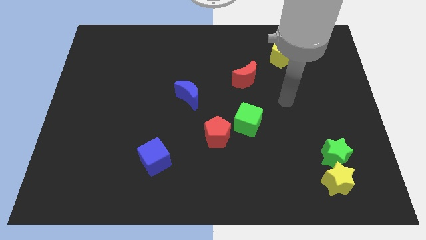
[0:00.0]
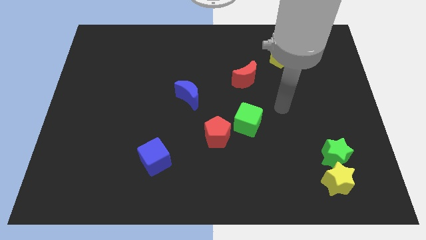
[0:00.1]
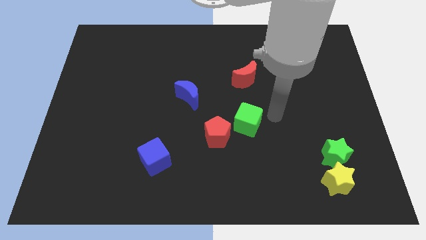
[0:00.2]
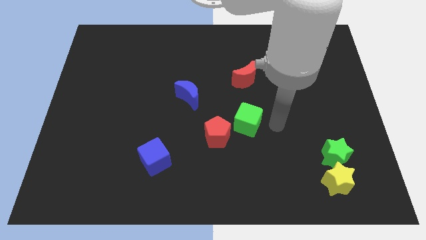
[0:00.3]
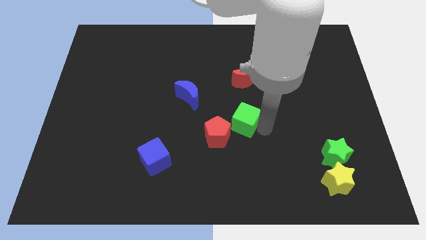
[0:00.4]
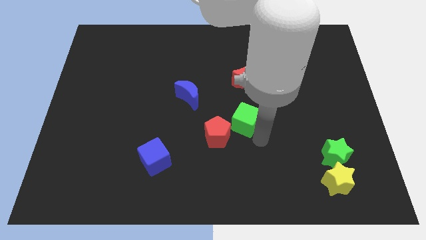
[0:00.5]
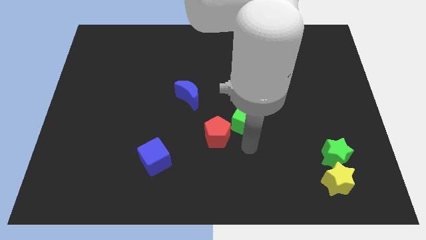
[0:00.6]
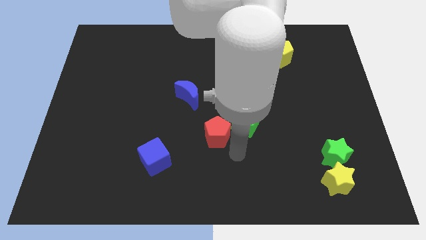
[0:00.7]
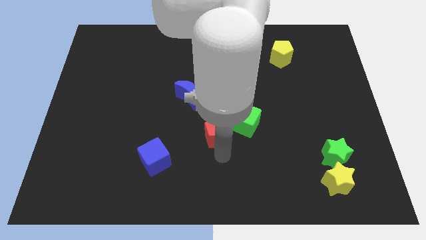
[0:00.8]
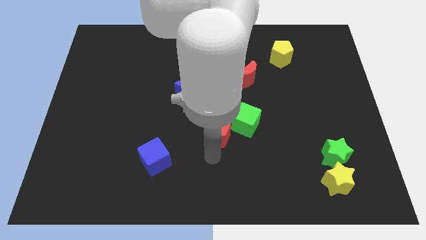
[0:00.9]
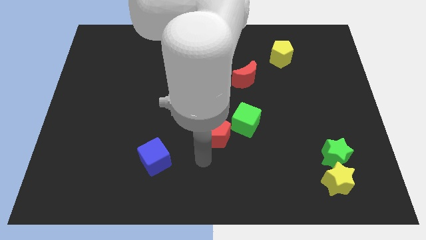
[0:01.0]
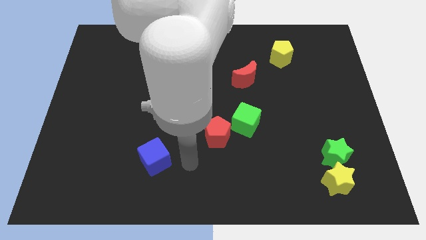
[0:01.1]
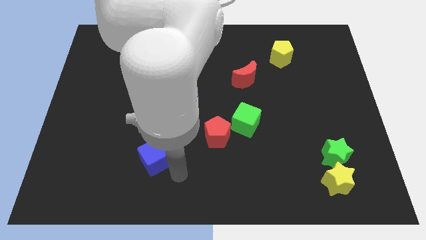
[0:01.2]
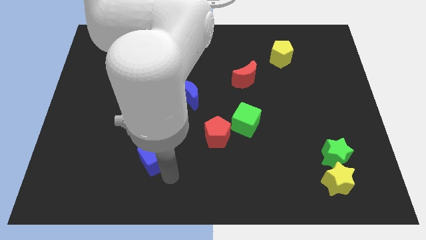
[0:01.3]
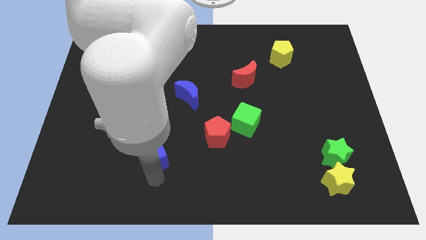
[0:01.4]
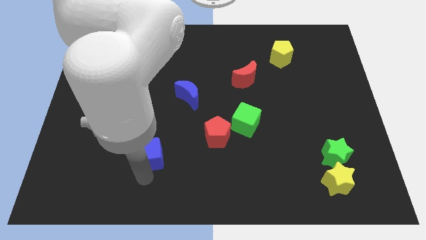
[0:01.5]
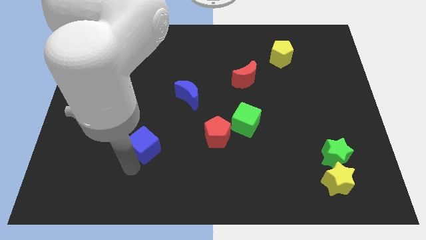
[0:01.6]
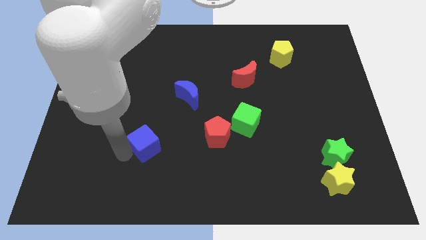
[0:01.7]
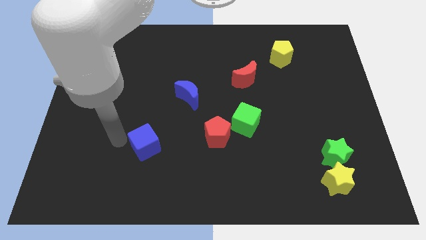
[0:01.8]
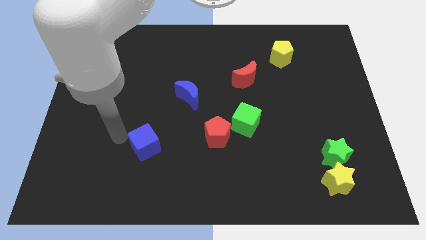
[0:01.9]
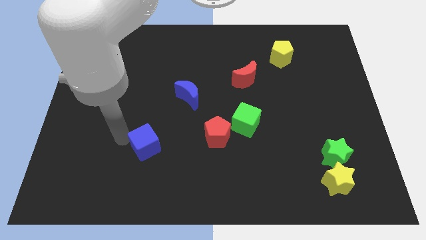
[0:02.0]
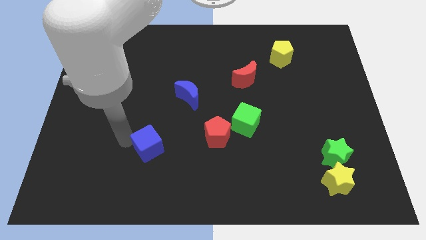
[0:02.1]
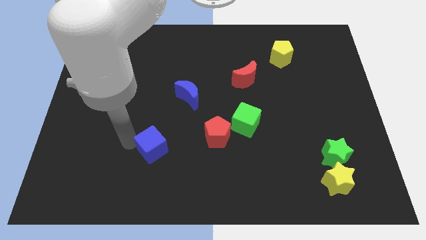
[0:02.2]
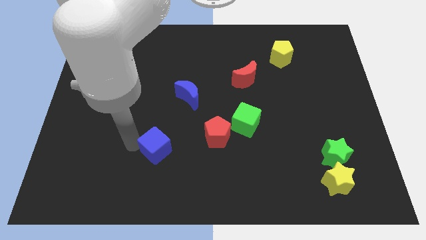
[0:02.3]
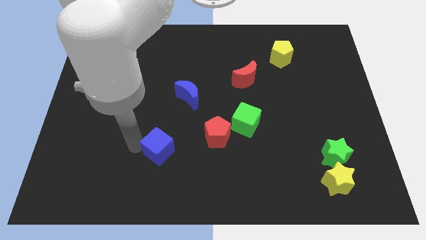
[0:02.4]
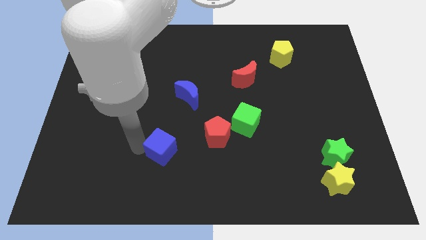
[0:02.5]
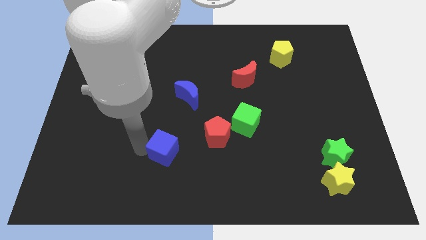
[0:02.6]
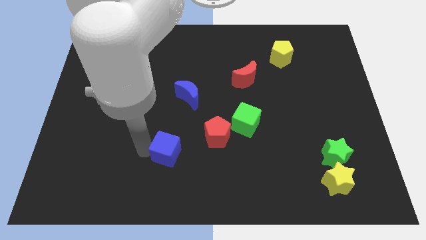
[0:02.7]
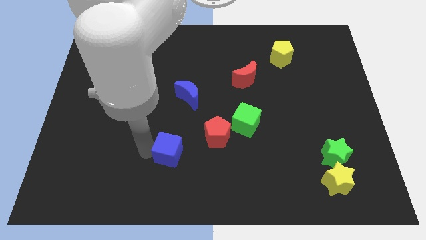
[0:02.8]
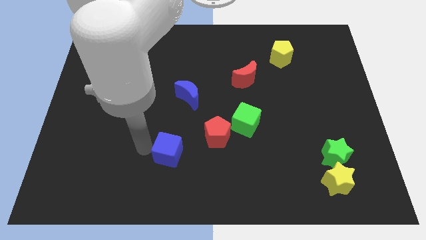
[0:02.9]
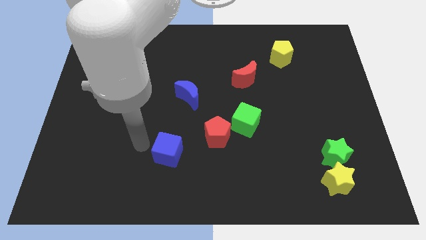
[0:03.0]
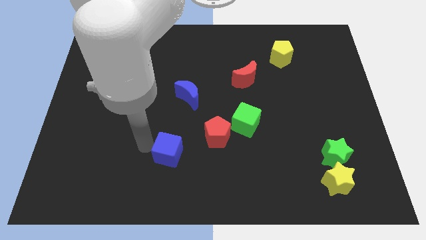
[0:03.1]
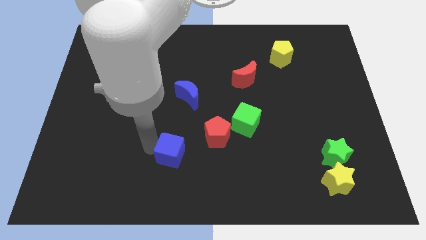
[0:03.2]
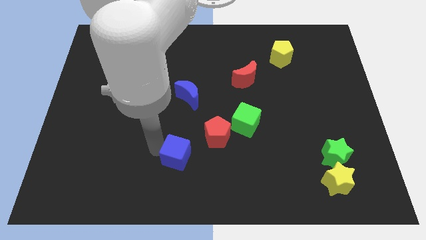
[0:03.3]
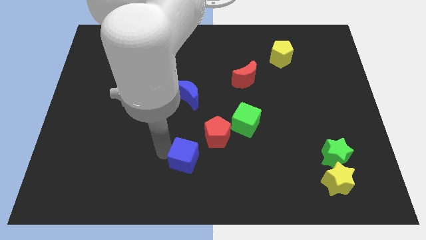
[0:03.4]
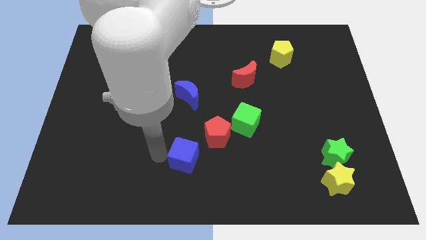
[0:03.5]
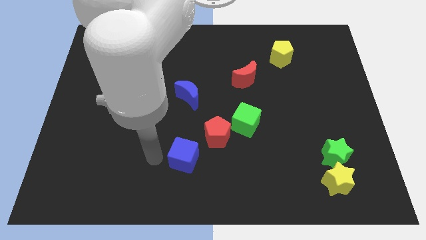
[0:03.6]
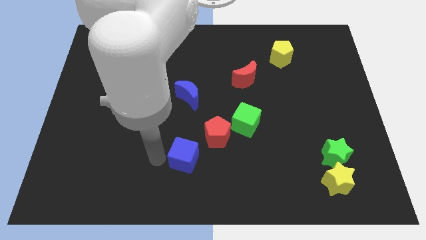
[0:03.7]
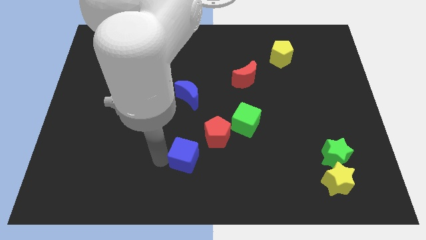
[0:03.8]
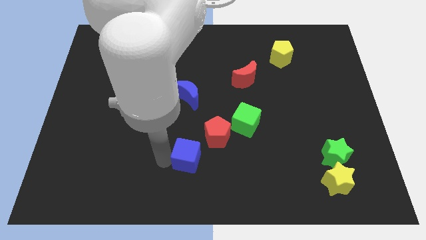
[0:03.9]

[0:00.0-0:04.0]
move the blue cube somewhat right

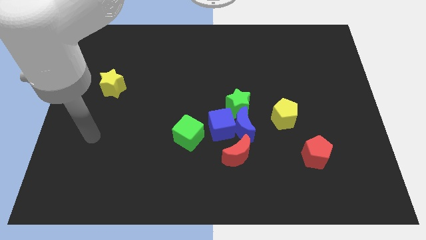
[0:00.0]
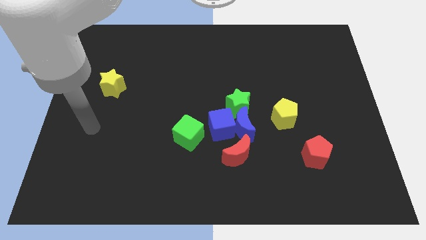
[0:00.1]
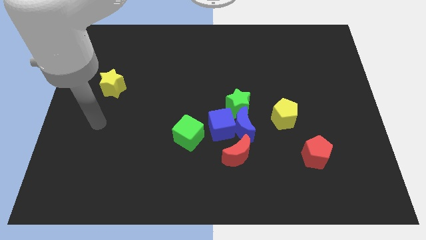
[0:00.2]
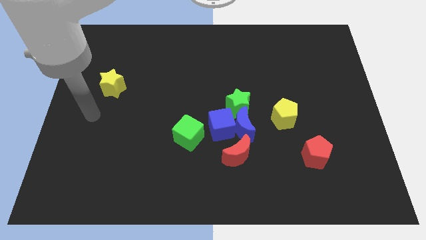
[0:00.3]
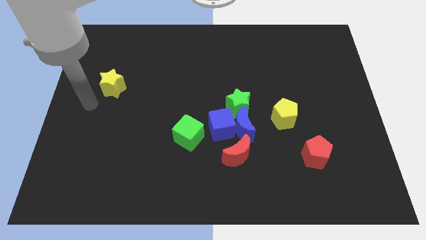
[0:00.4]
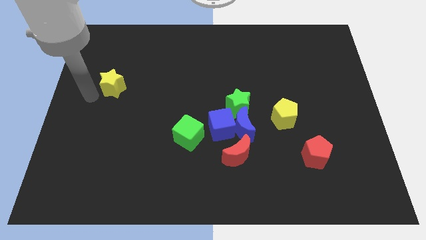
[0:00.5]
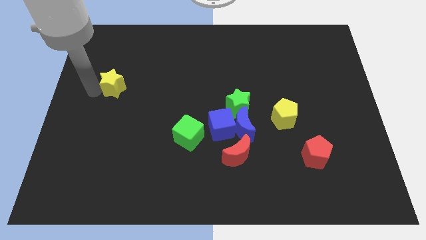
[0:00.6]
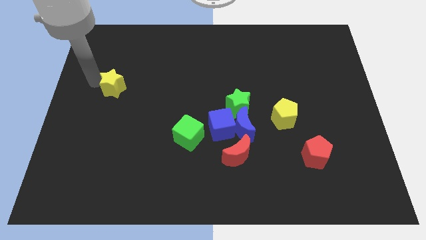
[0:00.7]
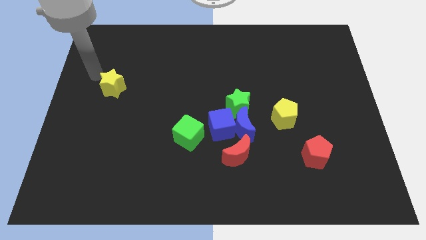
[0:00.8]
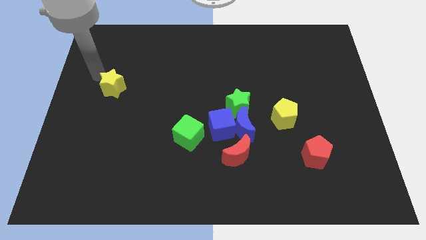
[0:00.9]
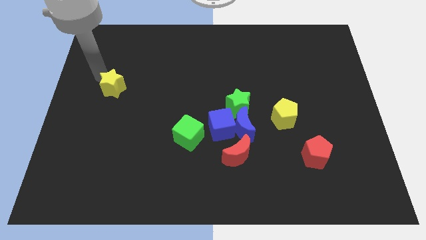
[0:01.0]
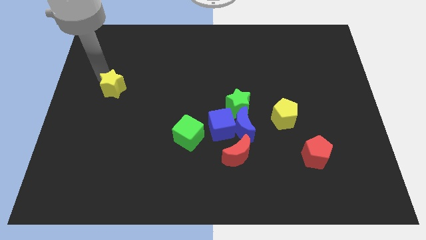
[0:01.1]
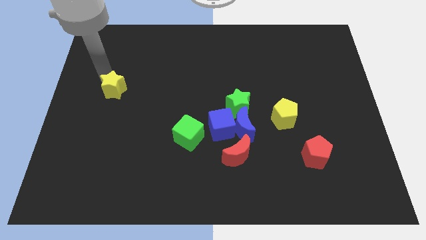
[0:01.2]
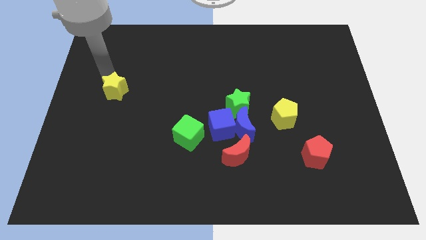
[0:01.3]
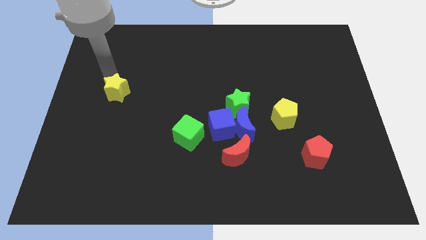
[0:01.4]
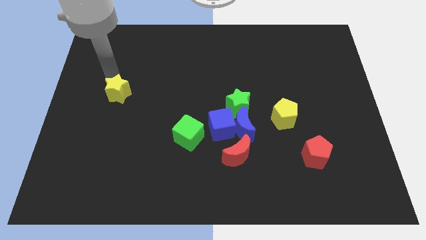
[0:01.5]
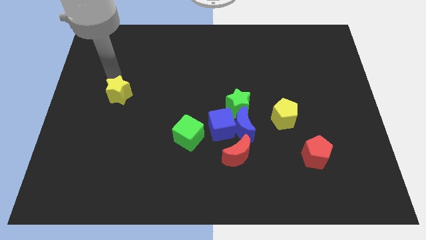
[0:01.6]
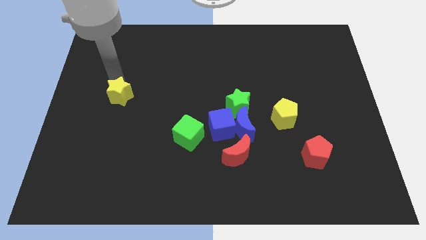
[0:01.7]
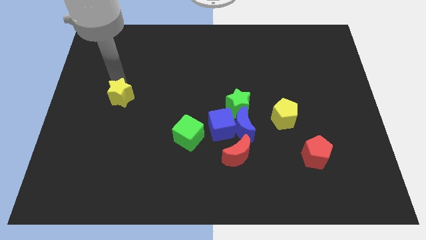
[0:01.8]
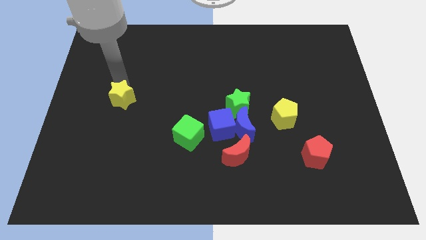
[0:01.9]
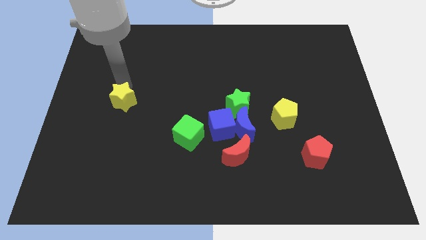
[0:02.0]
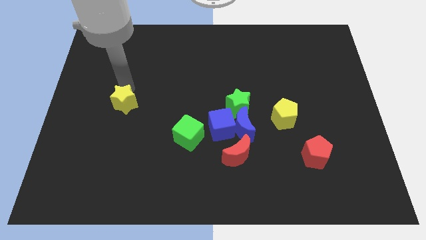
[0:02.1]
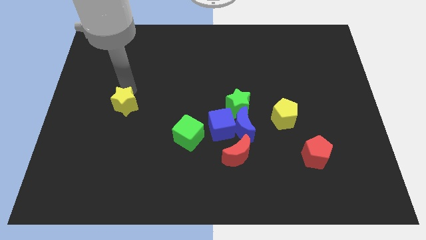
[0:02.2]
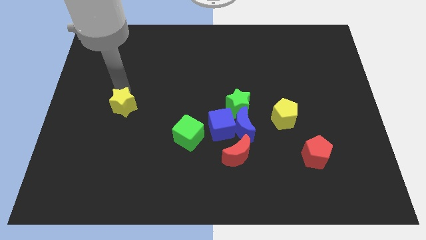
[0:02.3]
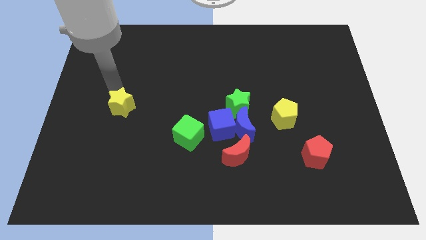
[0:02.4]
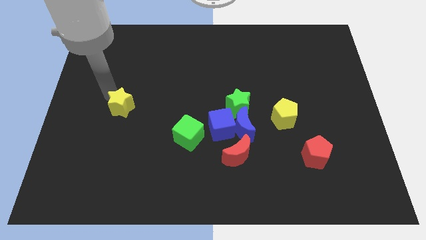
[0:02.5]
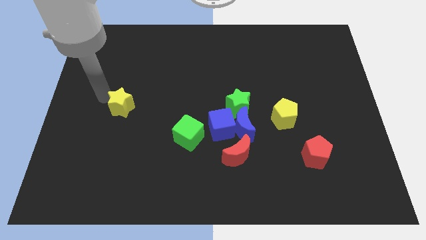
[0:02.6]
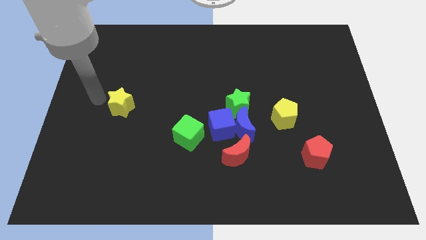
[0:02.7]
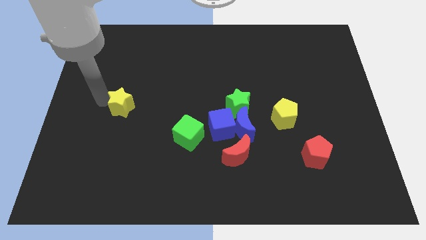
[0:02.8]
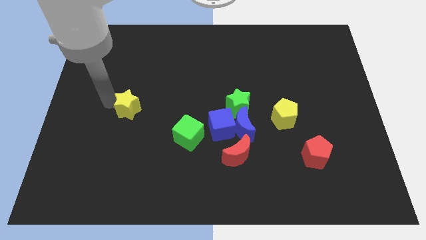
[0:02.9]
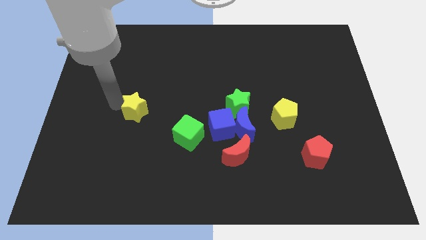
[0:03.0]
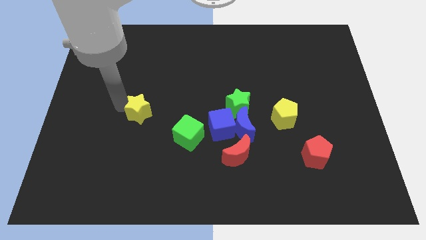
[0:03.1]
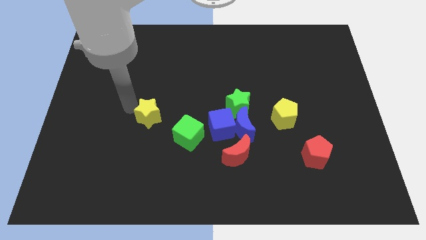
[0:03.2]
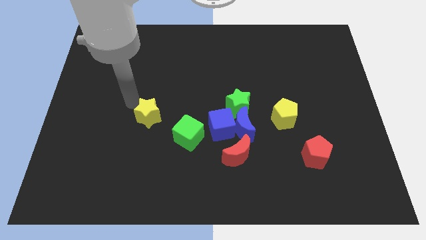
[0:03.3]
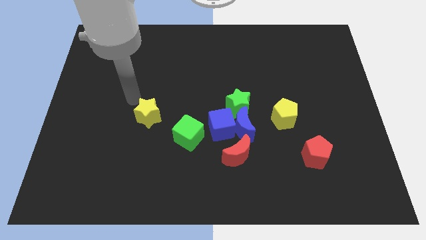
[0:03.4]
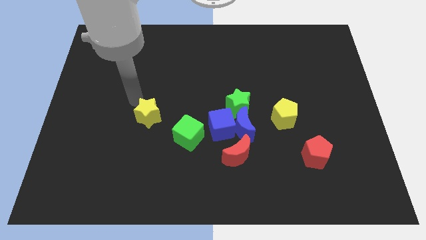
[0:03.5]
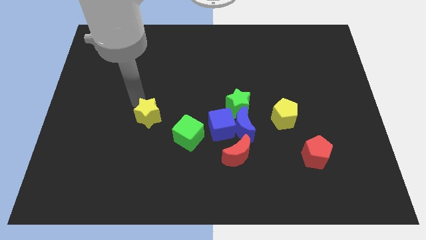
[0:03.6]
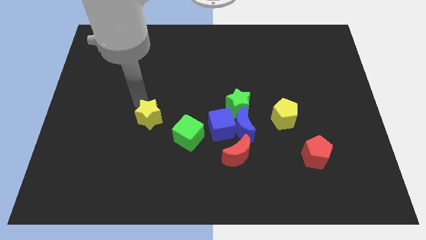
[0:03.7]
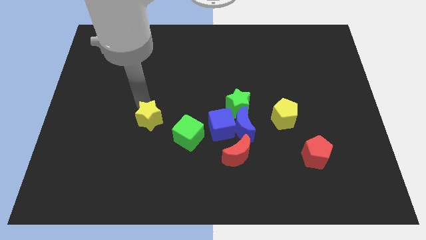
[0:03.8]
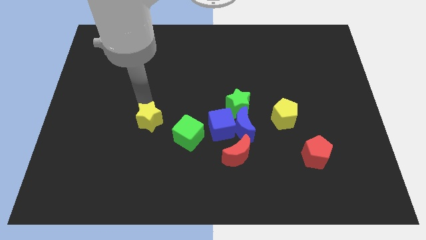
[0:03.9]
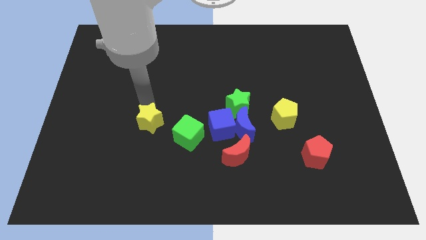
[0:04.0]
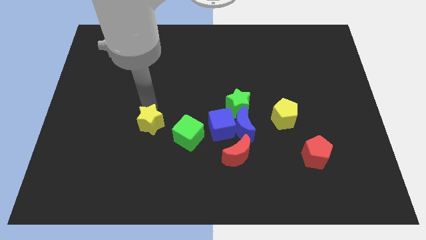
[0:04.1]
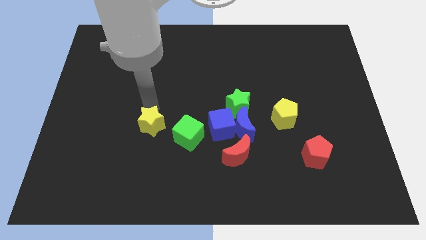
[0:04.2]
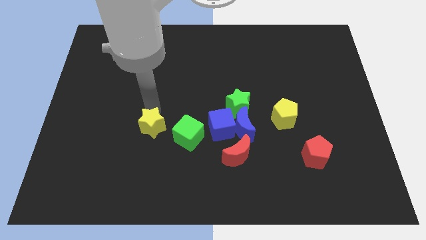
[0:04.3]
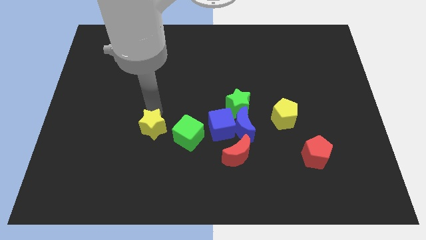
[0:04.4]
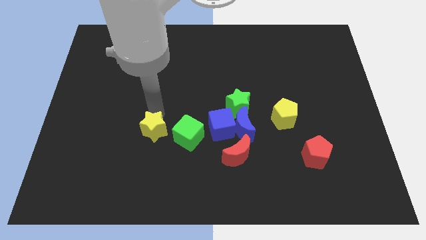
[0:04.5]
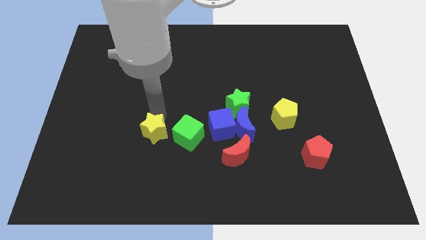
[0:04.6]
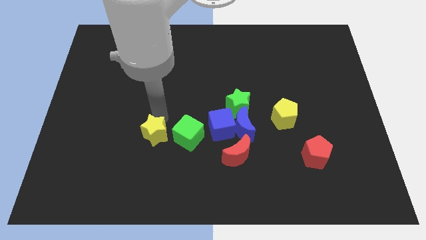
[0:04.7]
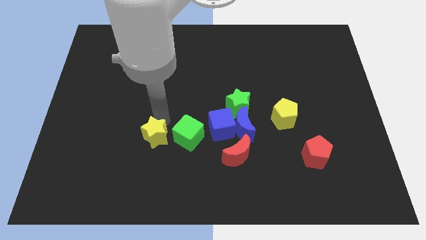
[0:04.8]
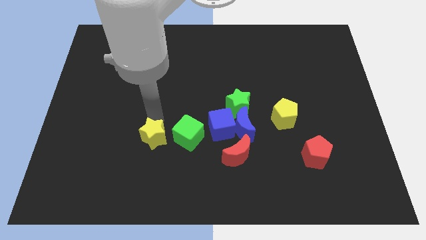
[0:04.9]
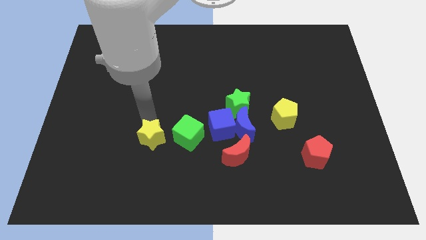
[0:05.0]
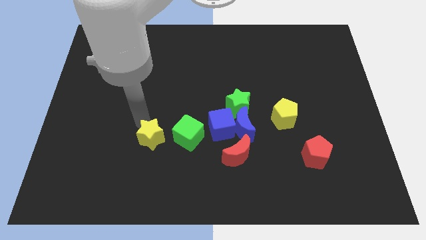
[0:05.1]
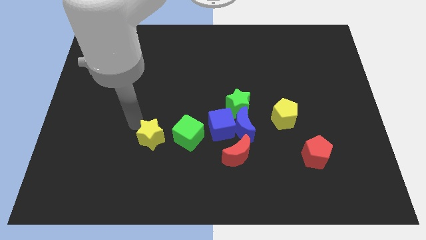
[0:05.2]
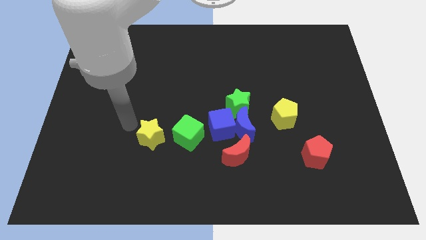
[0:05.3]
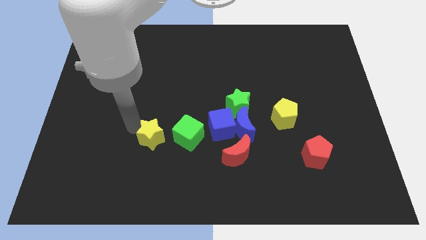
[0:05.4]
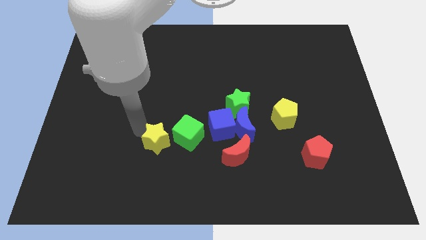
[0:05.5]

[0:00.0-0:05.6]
push the yellow star diagonally downwards and right
